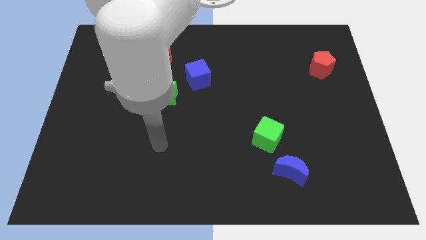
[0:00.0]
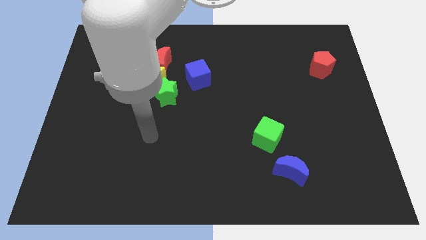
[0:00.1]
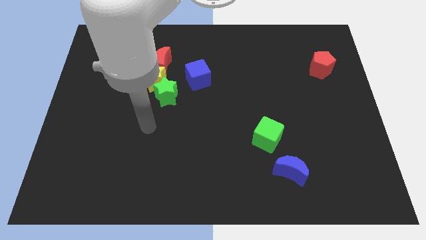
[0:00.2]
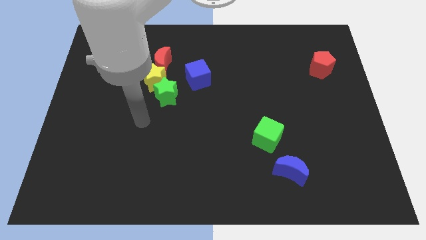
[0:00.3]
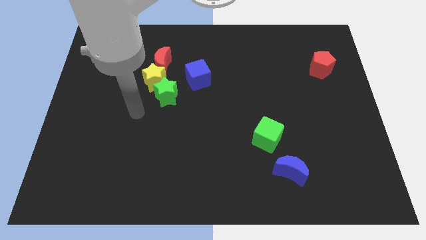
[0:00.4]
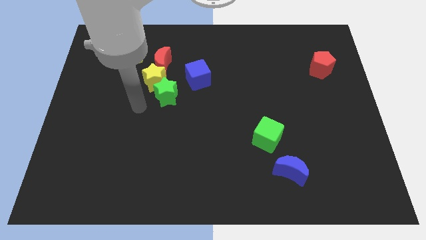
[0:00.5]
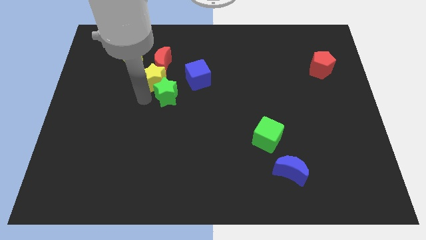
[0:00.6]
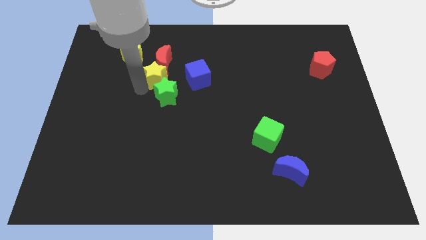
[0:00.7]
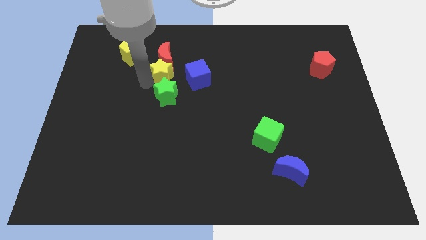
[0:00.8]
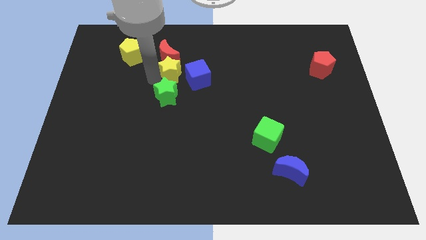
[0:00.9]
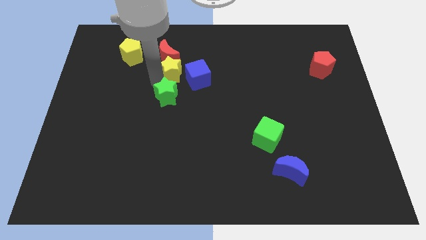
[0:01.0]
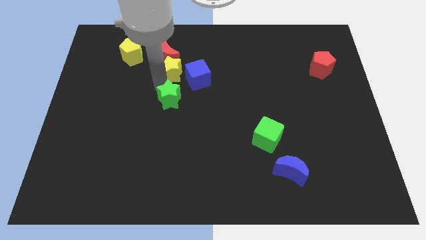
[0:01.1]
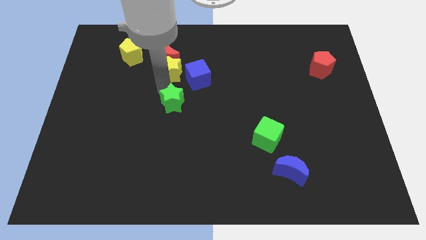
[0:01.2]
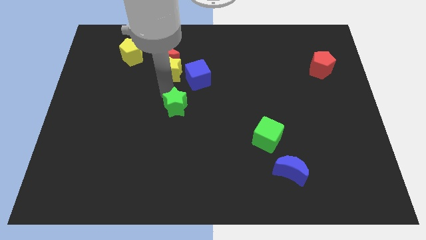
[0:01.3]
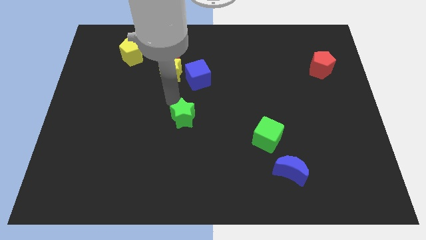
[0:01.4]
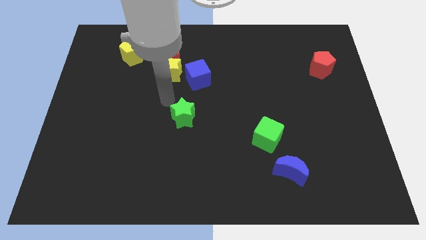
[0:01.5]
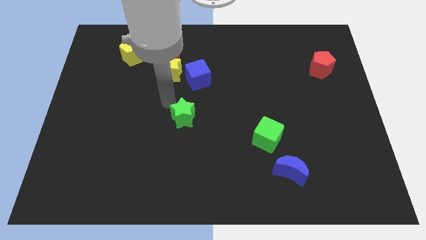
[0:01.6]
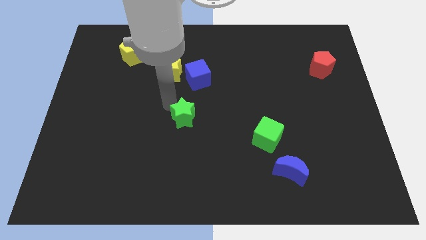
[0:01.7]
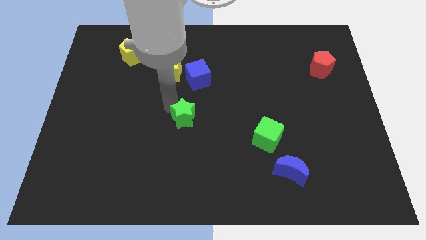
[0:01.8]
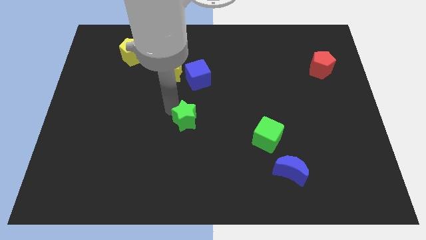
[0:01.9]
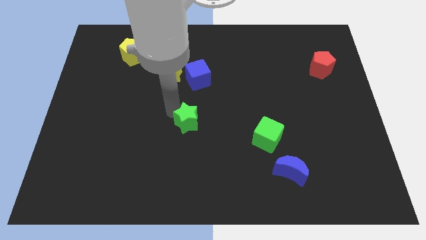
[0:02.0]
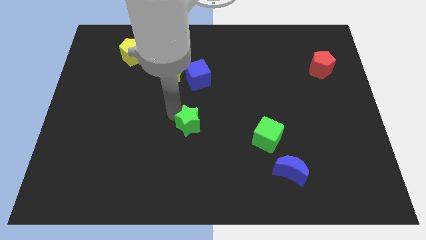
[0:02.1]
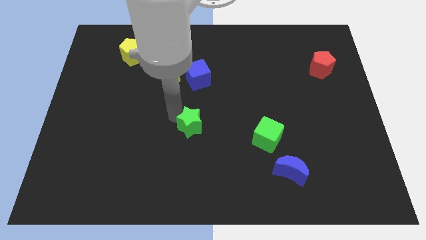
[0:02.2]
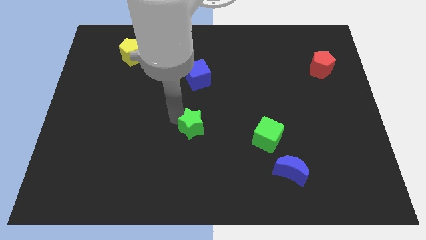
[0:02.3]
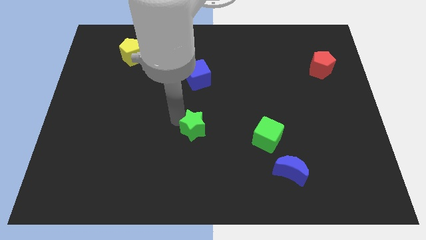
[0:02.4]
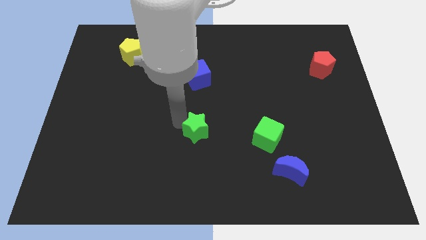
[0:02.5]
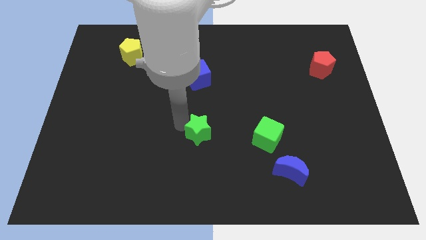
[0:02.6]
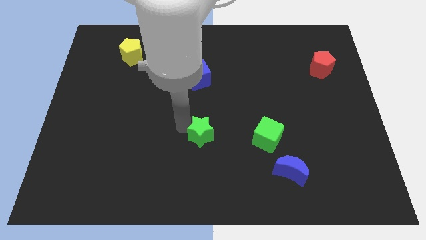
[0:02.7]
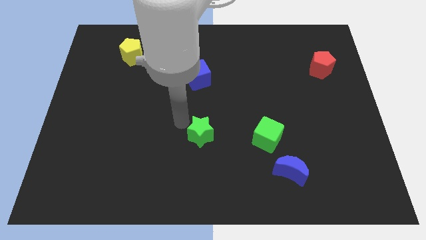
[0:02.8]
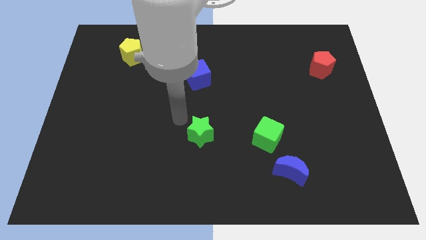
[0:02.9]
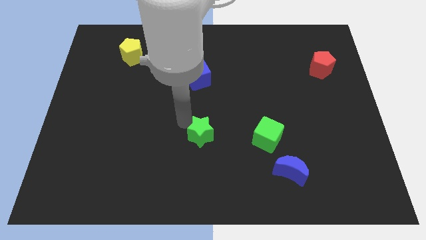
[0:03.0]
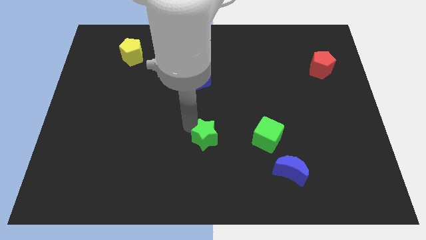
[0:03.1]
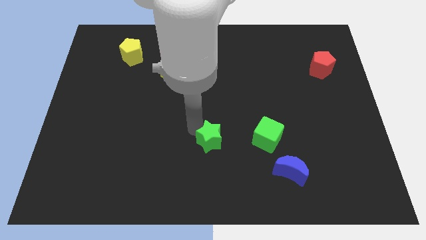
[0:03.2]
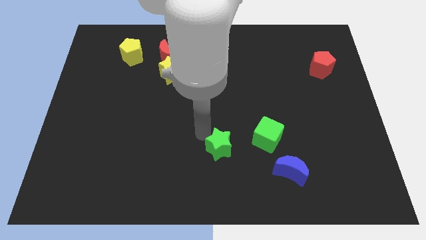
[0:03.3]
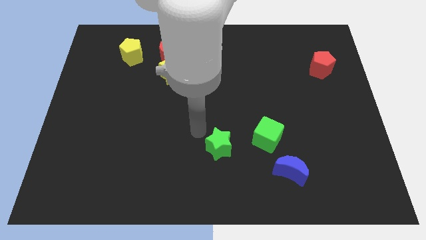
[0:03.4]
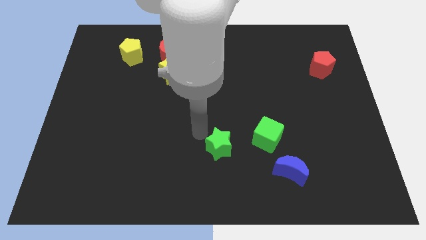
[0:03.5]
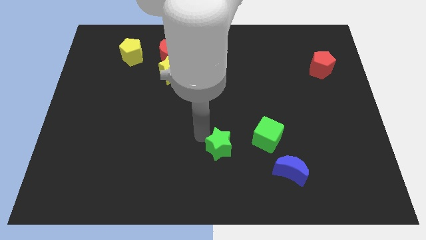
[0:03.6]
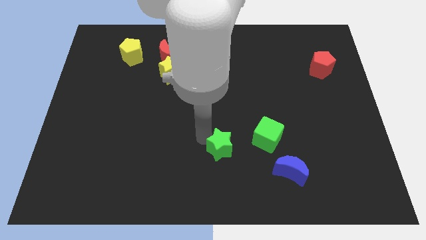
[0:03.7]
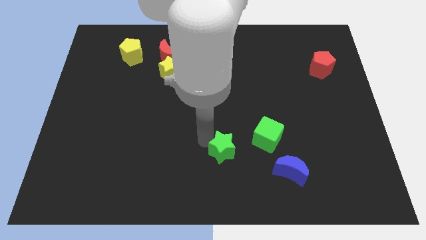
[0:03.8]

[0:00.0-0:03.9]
move the green star down and to the right diagonally

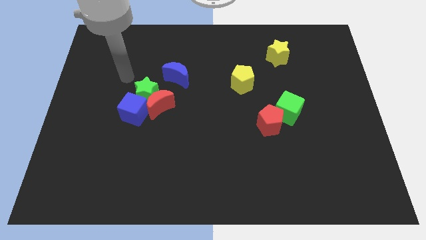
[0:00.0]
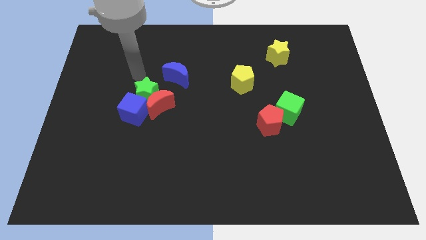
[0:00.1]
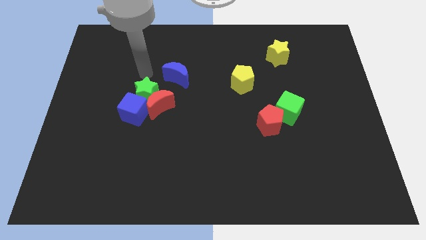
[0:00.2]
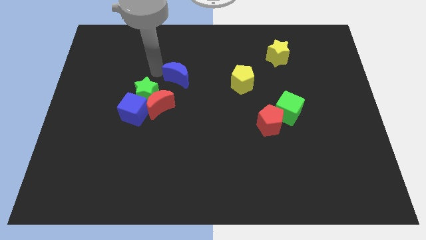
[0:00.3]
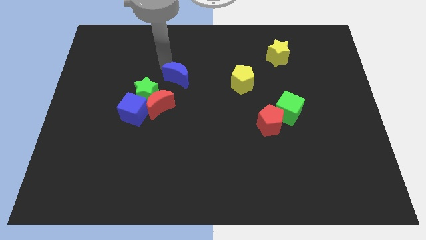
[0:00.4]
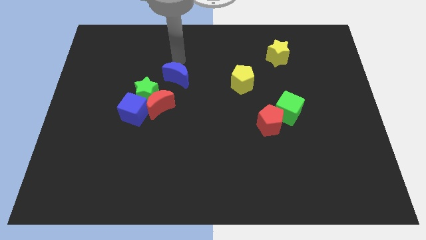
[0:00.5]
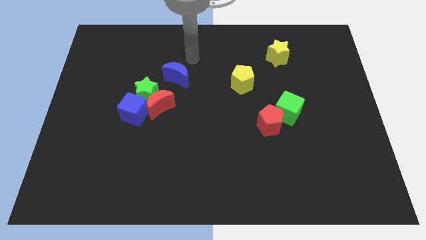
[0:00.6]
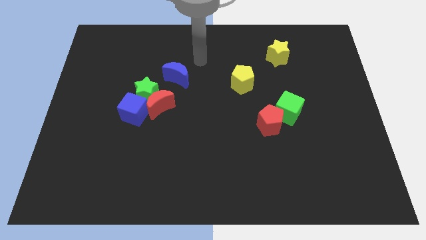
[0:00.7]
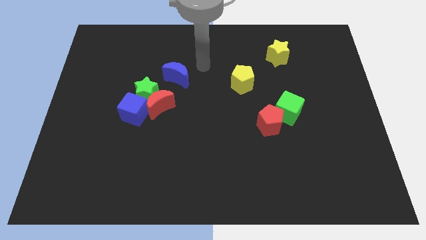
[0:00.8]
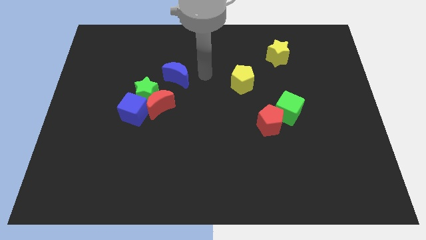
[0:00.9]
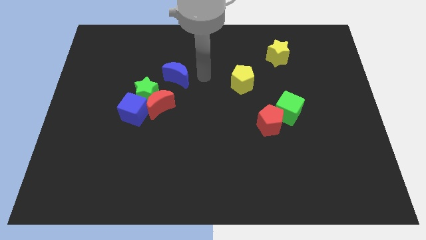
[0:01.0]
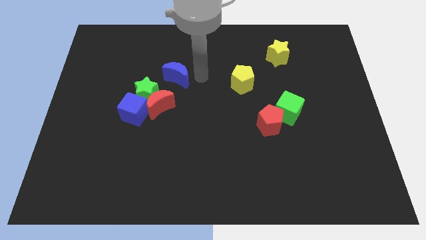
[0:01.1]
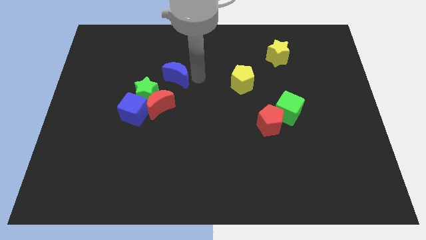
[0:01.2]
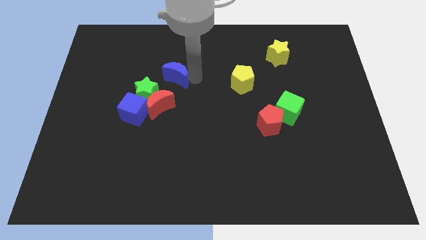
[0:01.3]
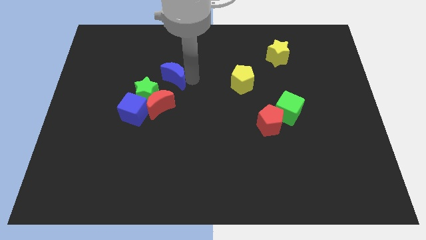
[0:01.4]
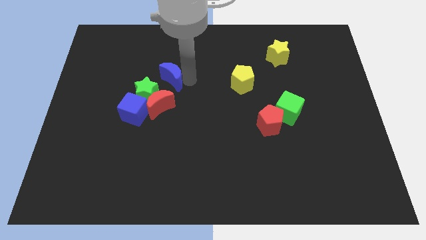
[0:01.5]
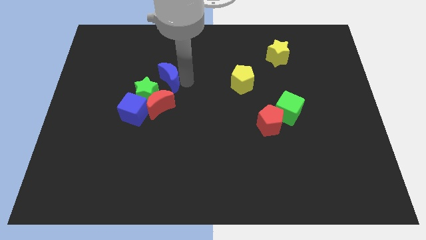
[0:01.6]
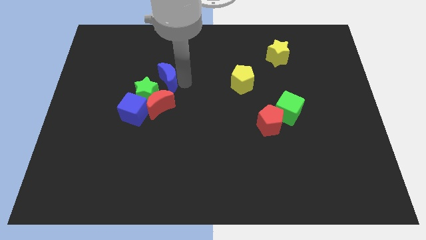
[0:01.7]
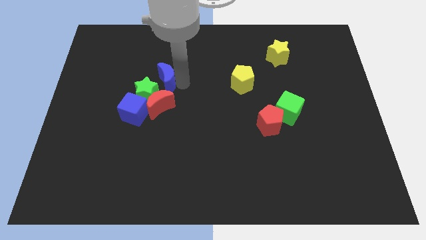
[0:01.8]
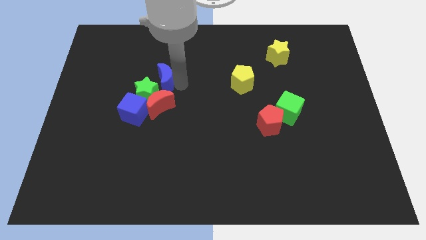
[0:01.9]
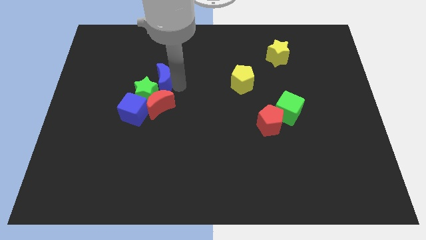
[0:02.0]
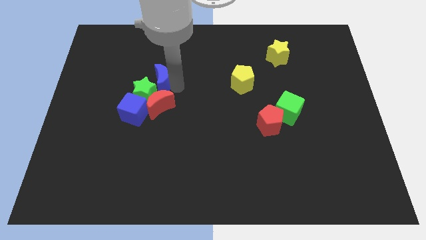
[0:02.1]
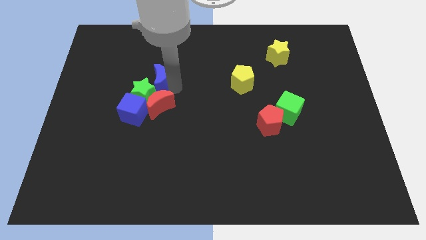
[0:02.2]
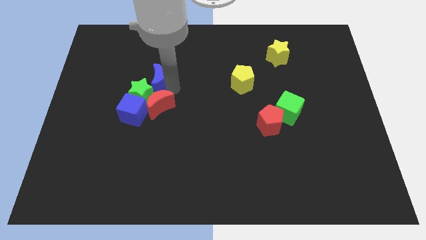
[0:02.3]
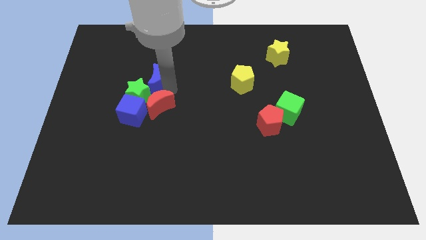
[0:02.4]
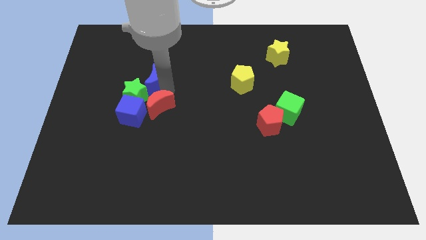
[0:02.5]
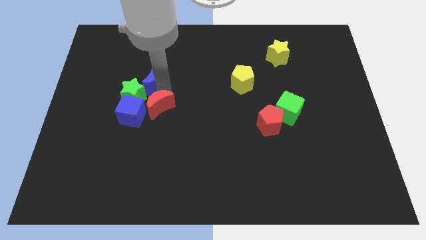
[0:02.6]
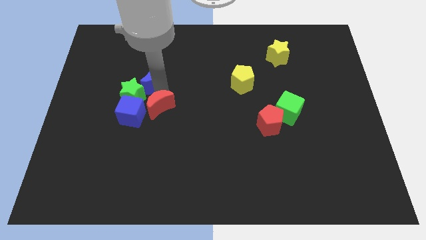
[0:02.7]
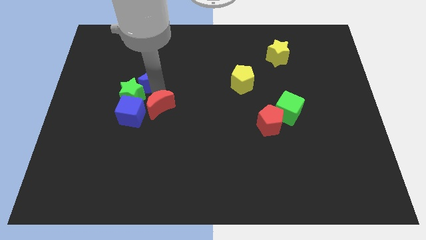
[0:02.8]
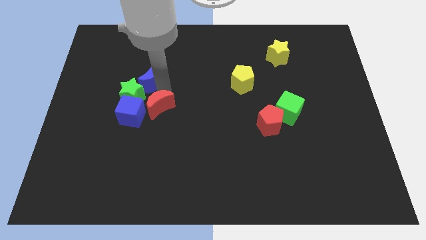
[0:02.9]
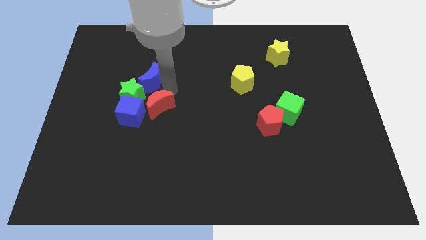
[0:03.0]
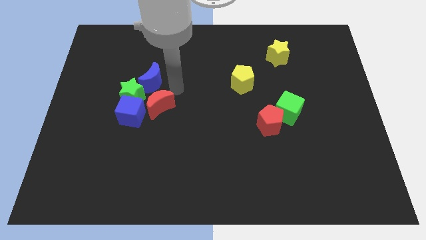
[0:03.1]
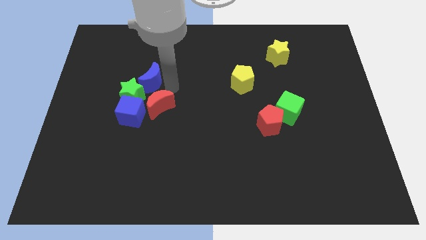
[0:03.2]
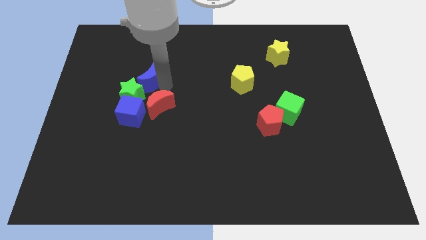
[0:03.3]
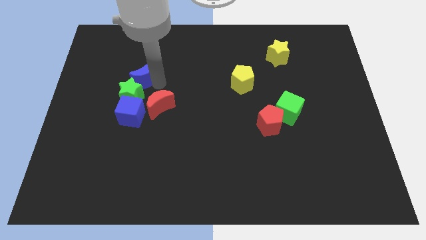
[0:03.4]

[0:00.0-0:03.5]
slide the blue moon left a bit

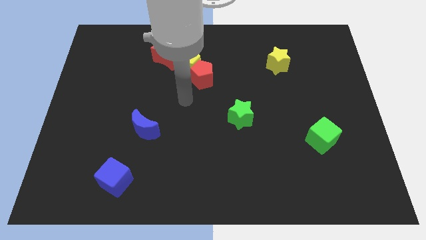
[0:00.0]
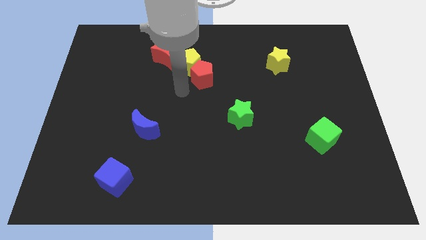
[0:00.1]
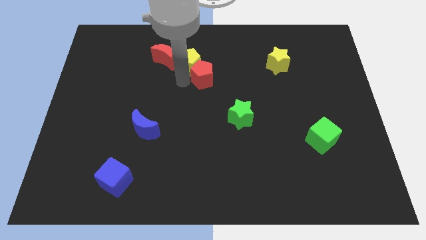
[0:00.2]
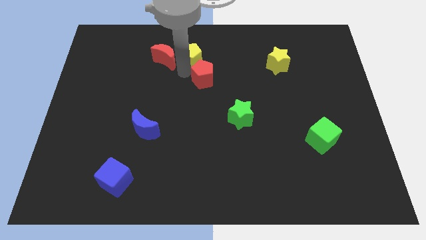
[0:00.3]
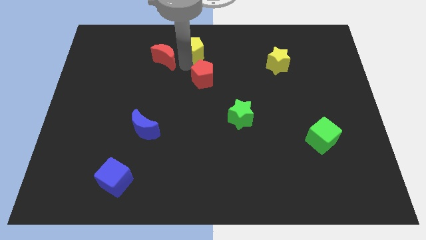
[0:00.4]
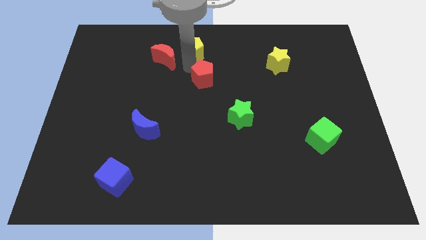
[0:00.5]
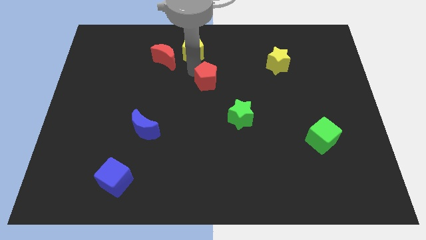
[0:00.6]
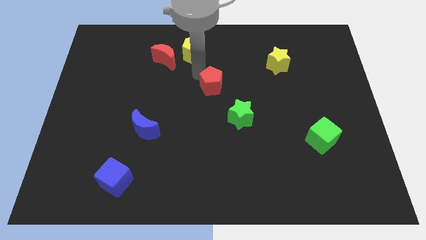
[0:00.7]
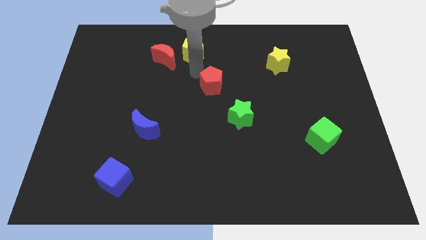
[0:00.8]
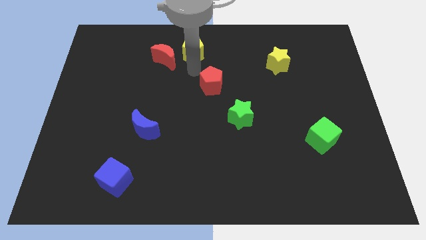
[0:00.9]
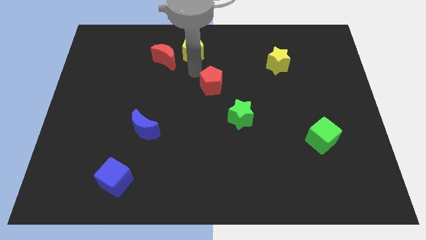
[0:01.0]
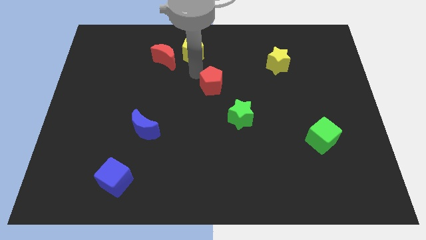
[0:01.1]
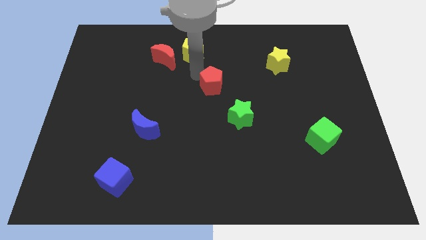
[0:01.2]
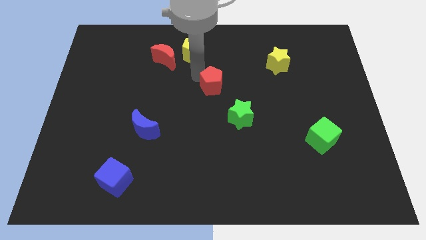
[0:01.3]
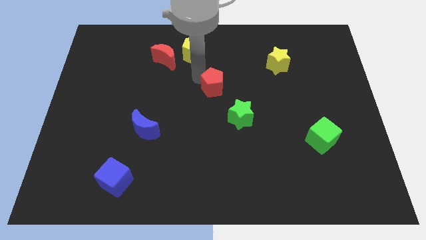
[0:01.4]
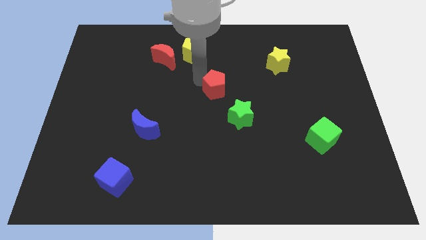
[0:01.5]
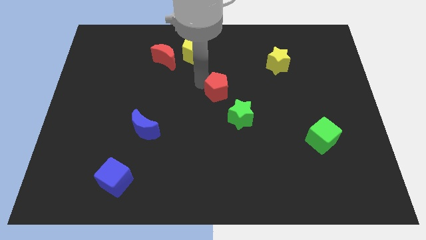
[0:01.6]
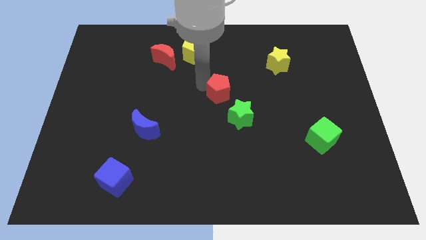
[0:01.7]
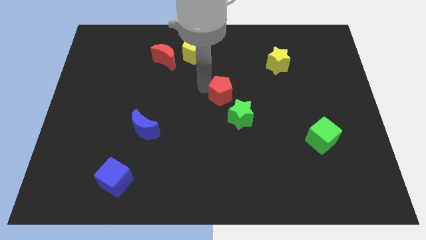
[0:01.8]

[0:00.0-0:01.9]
push the red pentagon slightly diagonally down and right
